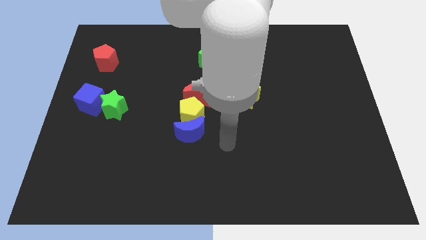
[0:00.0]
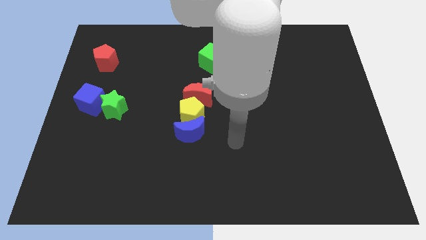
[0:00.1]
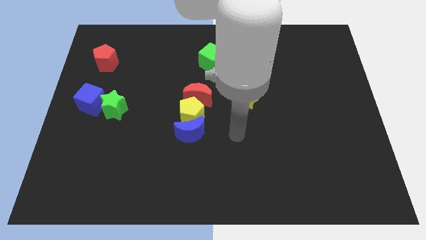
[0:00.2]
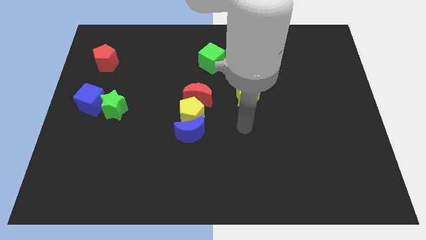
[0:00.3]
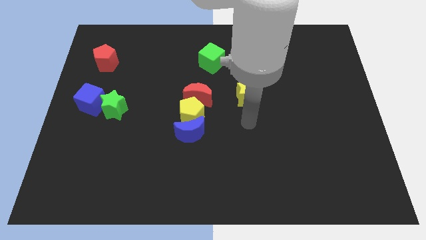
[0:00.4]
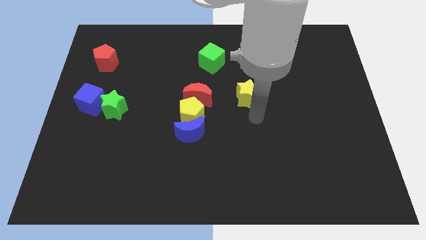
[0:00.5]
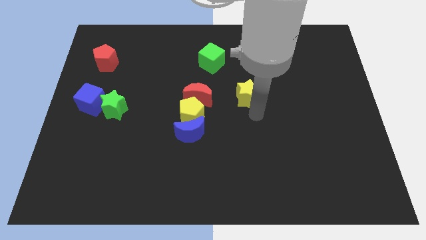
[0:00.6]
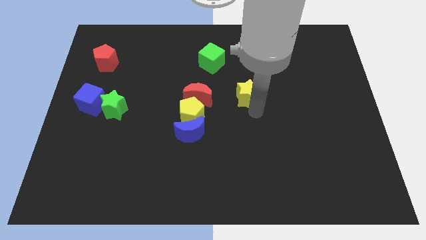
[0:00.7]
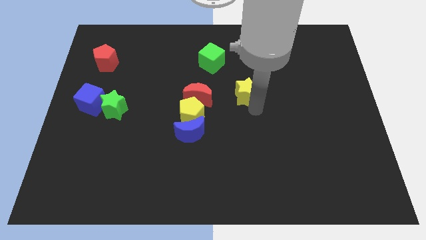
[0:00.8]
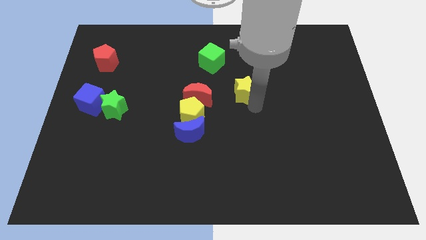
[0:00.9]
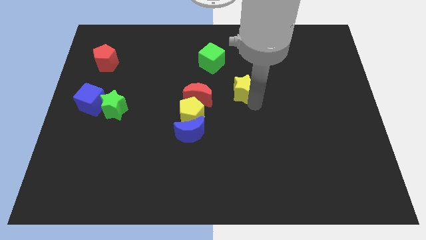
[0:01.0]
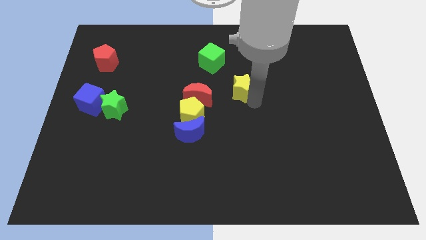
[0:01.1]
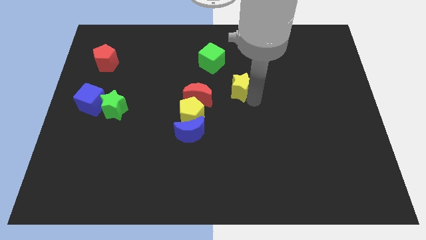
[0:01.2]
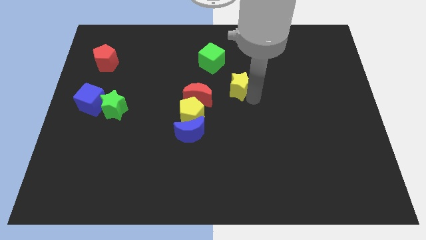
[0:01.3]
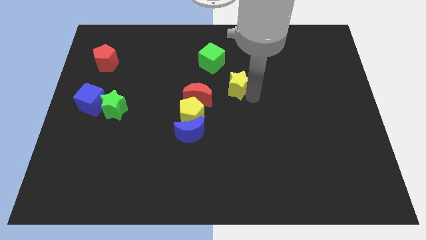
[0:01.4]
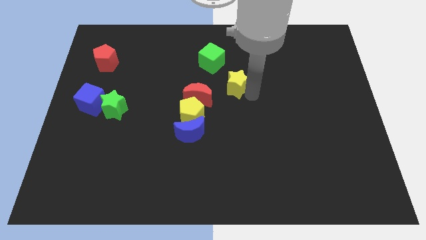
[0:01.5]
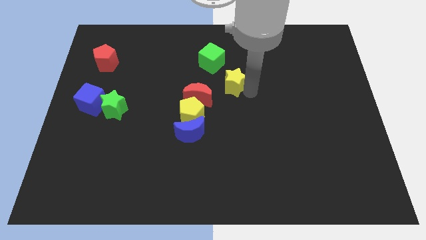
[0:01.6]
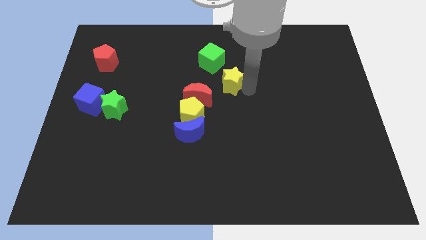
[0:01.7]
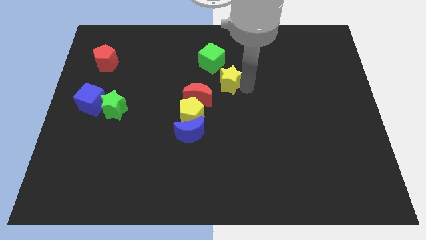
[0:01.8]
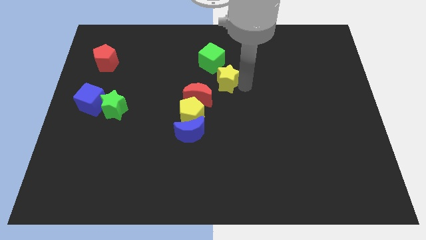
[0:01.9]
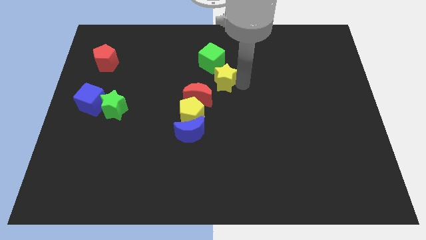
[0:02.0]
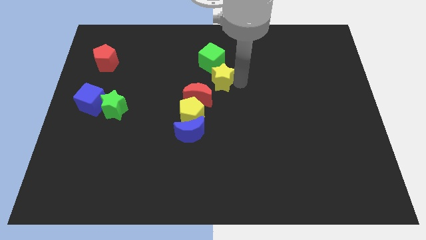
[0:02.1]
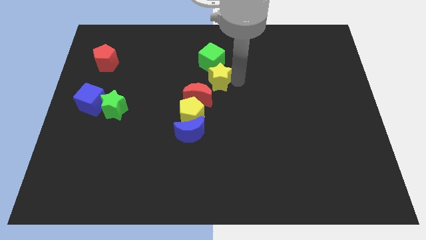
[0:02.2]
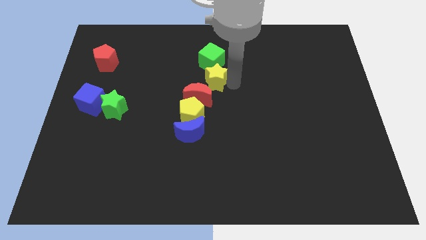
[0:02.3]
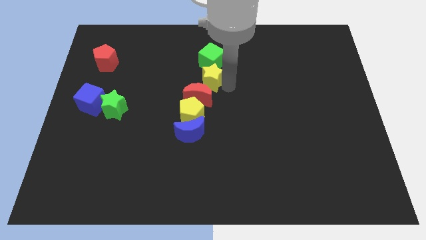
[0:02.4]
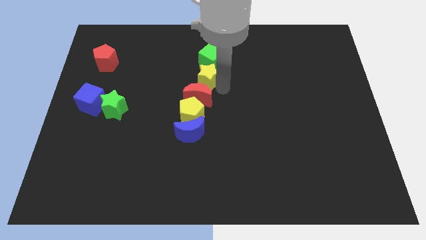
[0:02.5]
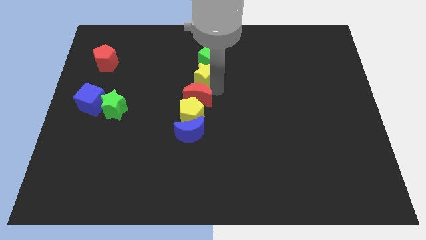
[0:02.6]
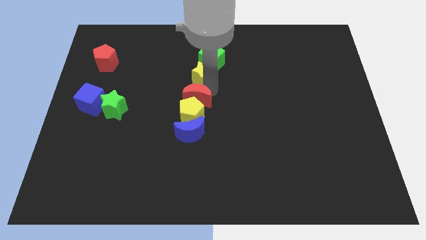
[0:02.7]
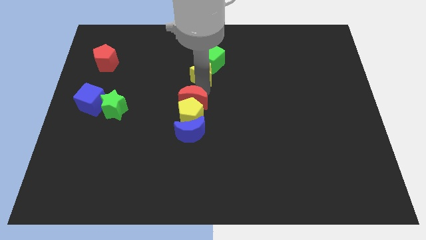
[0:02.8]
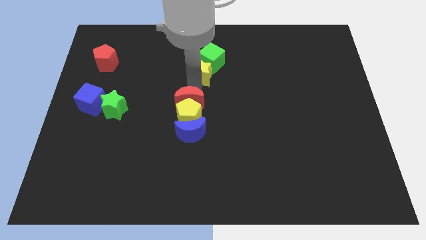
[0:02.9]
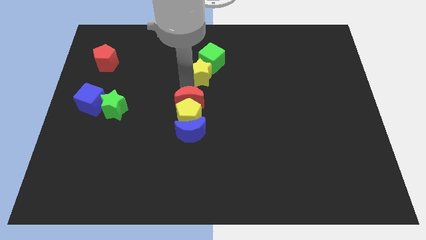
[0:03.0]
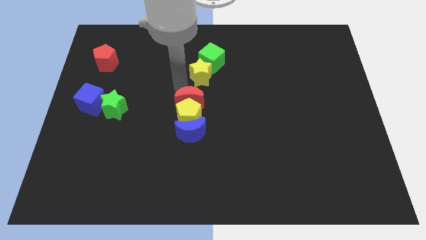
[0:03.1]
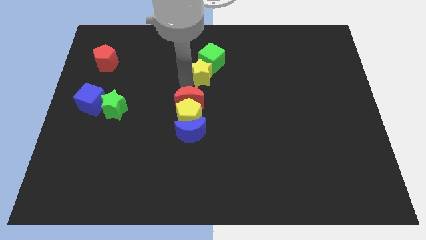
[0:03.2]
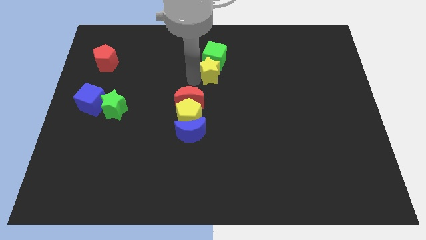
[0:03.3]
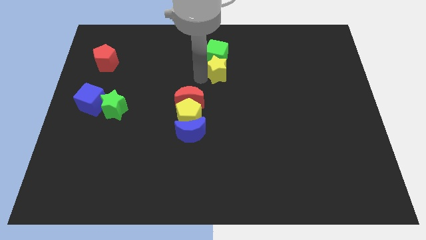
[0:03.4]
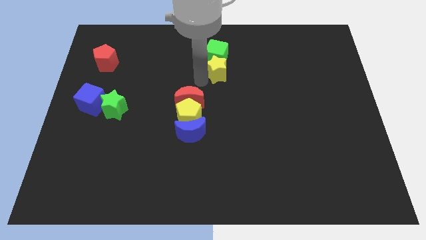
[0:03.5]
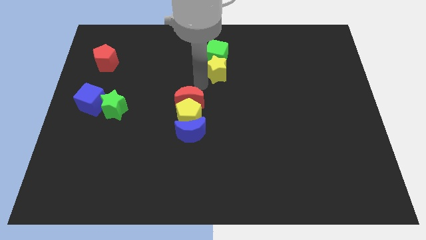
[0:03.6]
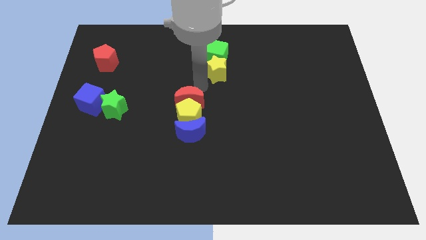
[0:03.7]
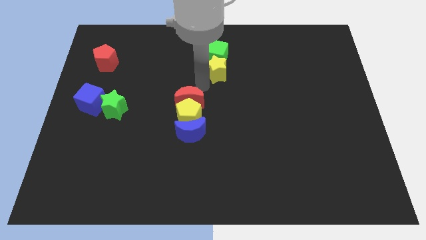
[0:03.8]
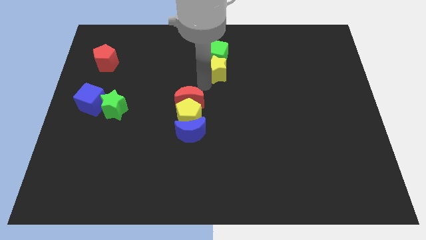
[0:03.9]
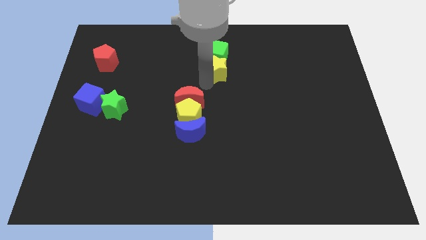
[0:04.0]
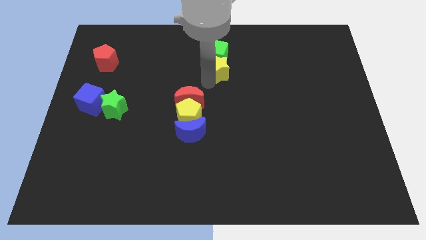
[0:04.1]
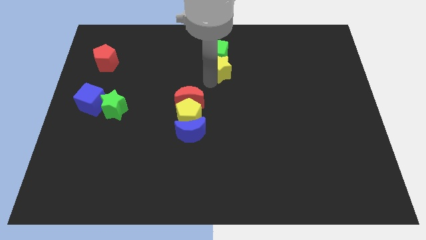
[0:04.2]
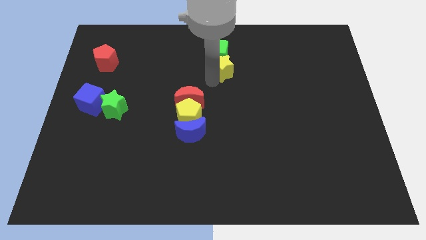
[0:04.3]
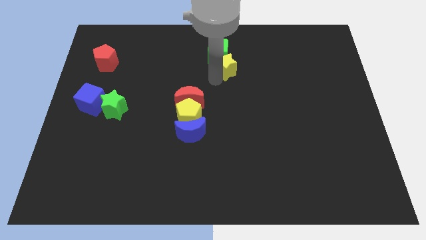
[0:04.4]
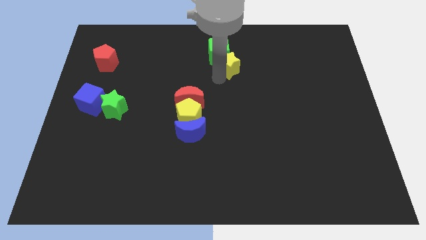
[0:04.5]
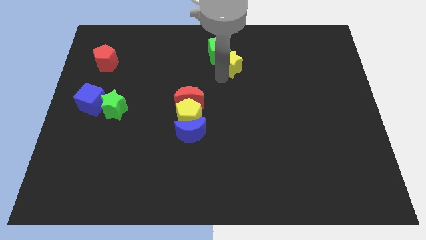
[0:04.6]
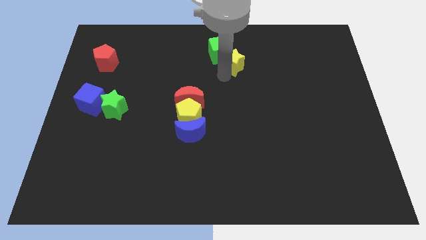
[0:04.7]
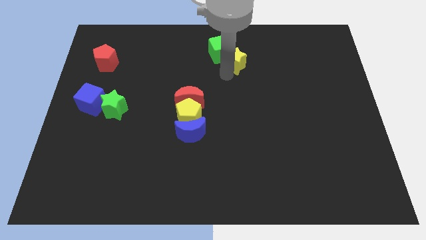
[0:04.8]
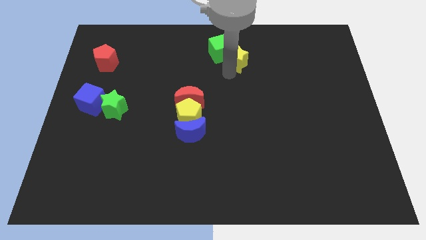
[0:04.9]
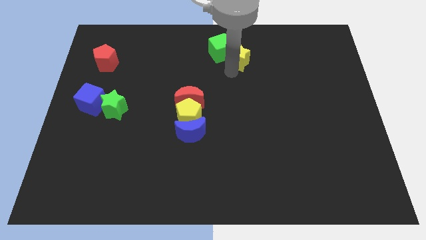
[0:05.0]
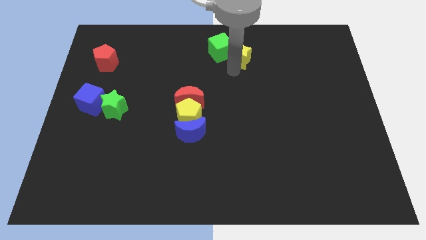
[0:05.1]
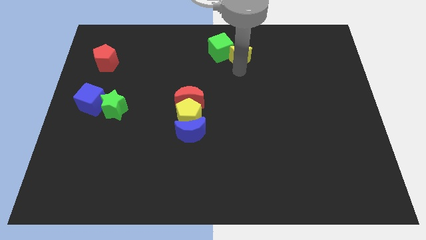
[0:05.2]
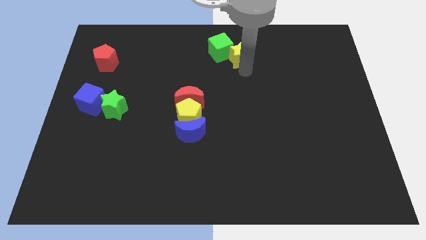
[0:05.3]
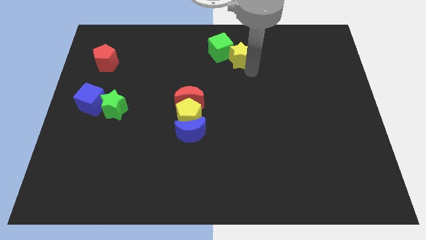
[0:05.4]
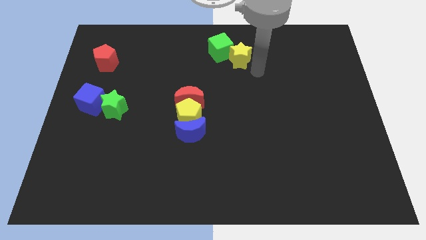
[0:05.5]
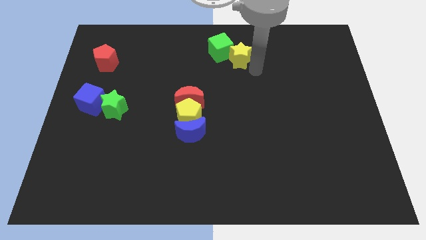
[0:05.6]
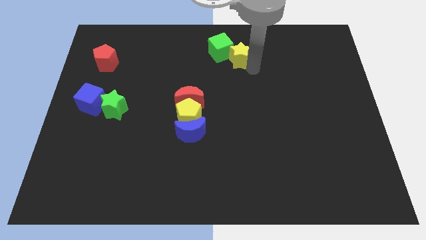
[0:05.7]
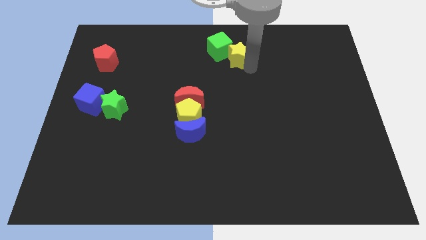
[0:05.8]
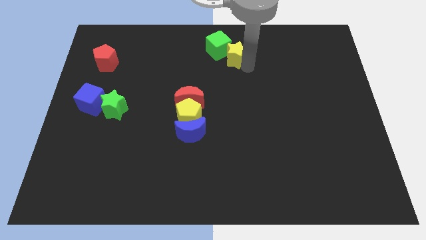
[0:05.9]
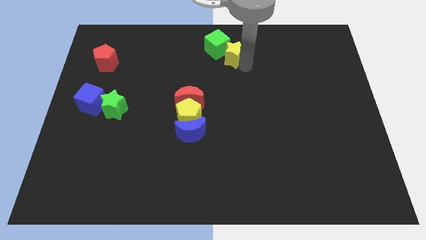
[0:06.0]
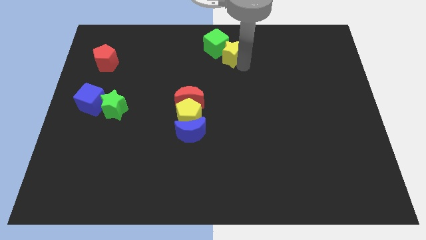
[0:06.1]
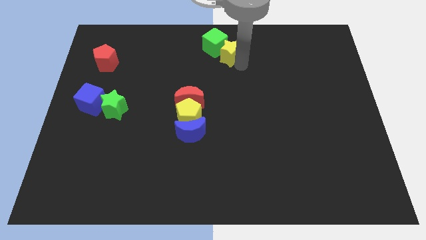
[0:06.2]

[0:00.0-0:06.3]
put the yellow star to the top side

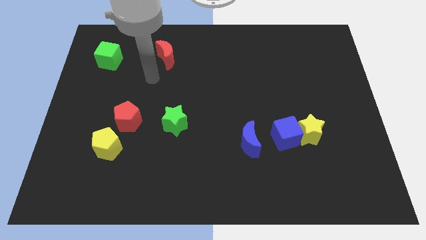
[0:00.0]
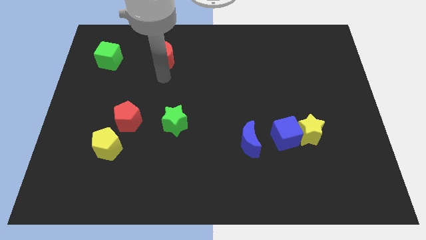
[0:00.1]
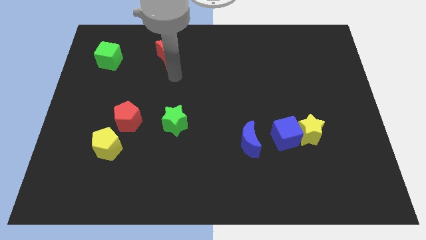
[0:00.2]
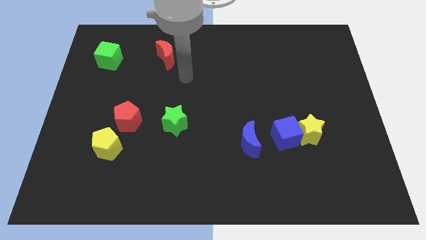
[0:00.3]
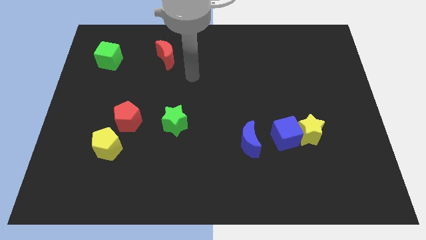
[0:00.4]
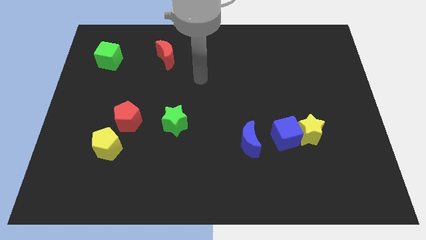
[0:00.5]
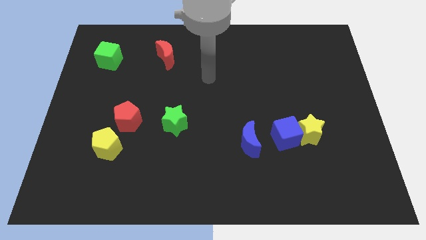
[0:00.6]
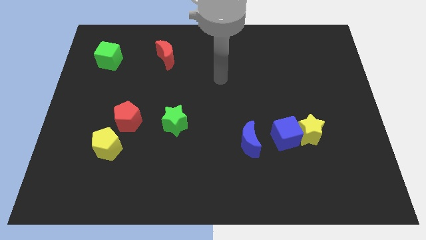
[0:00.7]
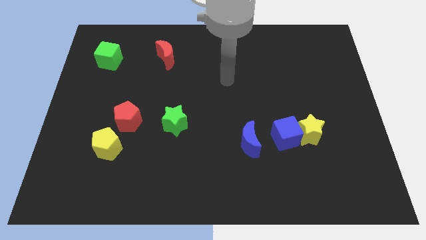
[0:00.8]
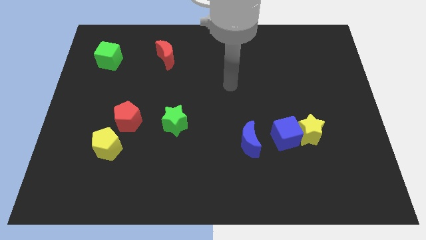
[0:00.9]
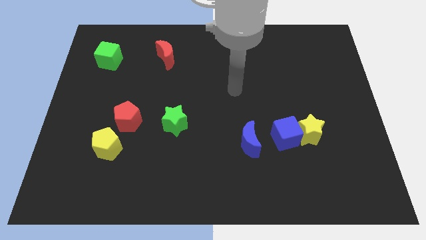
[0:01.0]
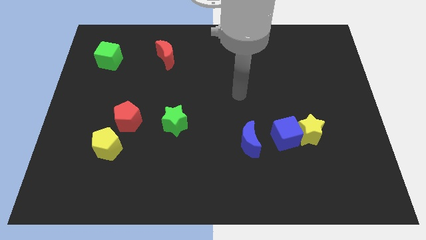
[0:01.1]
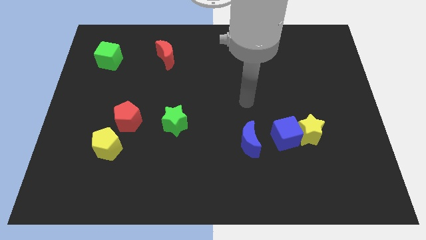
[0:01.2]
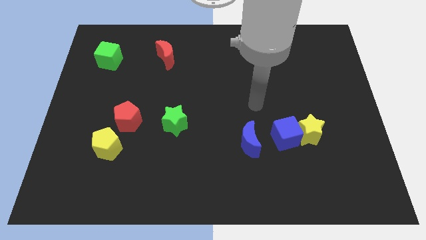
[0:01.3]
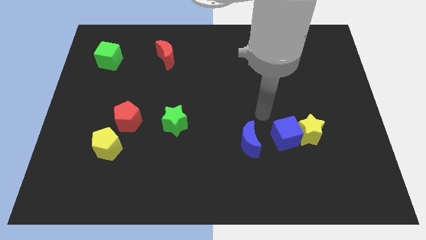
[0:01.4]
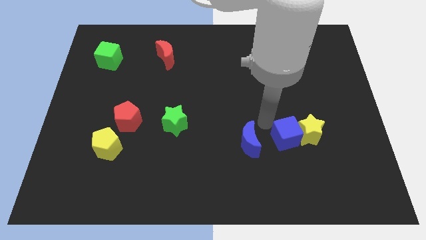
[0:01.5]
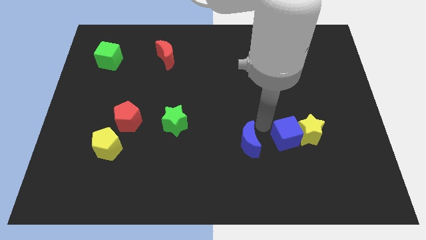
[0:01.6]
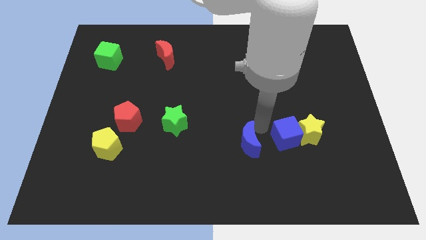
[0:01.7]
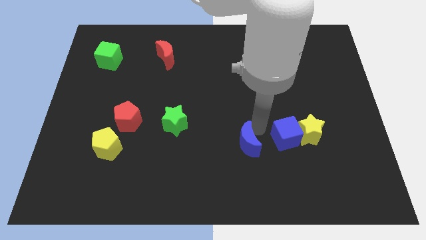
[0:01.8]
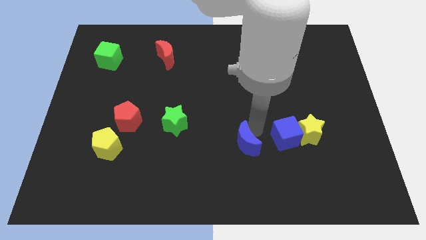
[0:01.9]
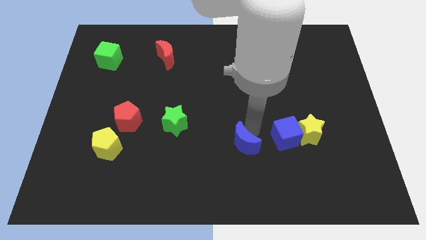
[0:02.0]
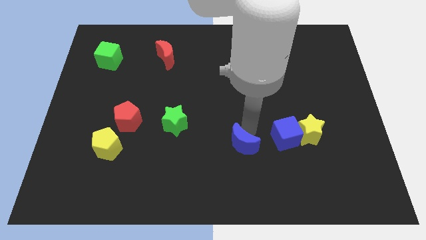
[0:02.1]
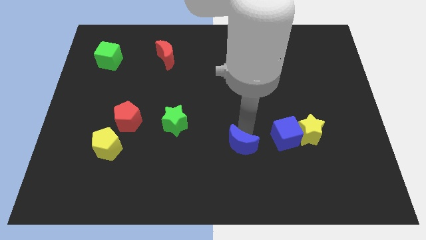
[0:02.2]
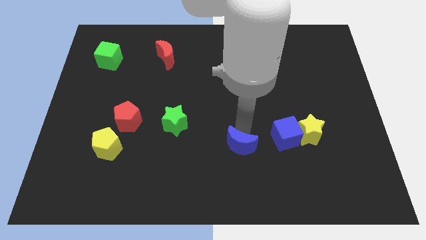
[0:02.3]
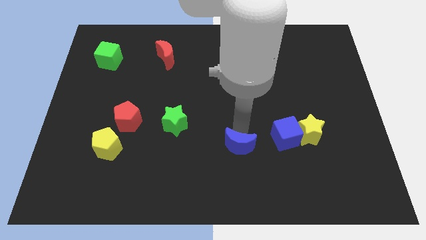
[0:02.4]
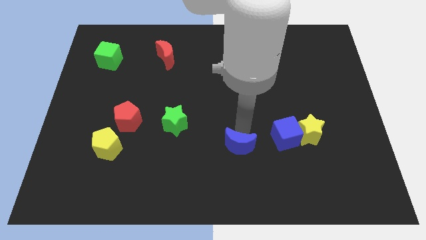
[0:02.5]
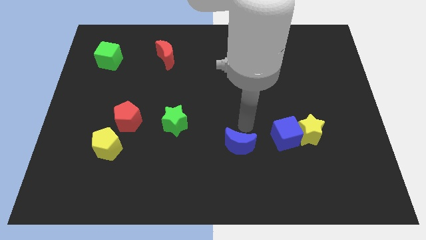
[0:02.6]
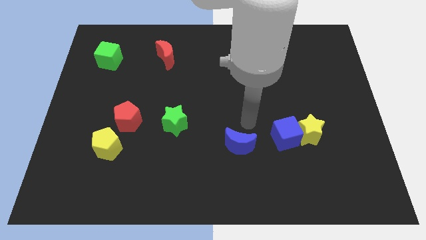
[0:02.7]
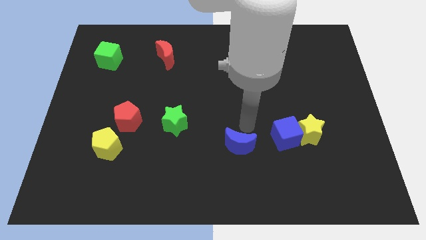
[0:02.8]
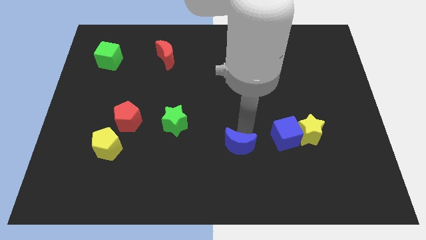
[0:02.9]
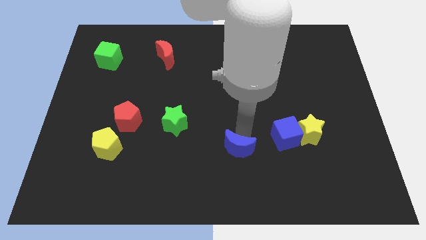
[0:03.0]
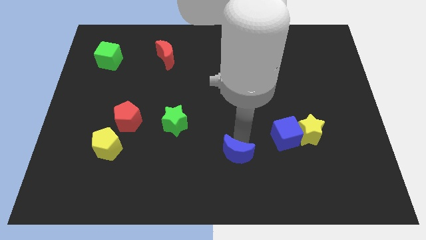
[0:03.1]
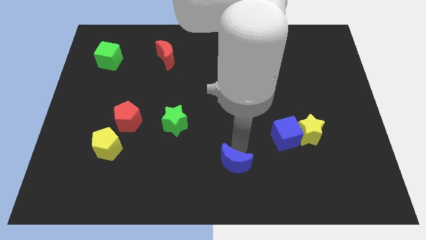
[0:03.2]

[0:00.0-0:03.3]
push the blue moon to the bottom
